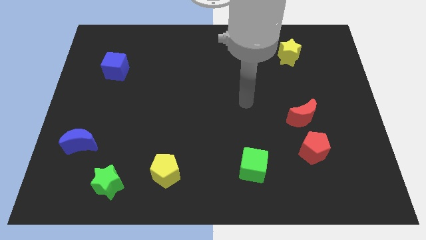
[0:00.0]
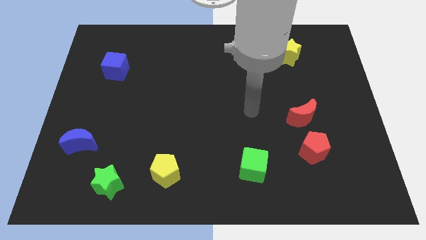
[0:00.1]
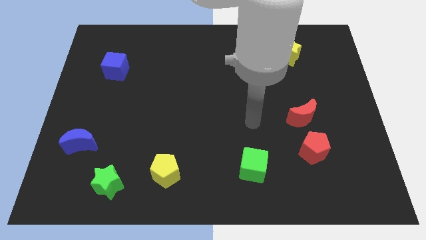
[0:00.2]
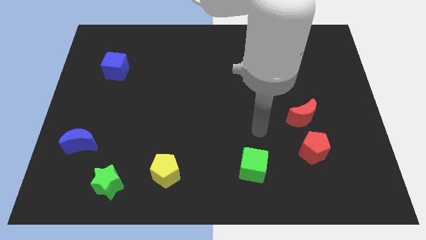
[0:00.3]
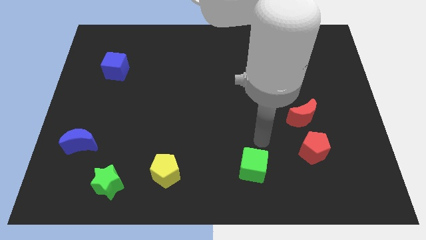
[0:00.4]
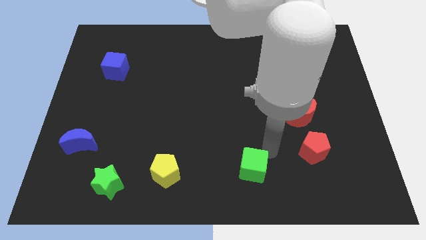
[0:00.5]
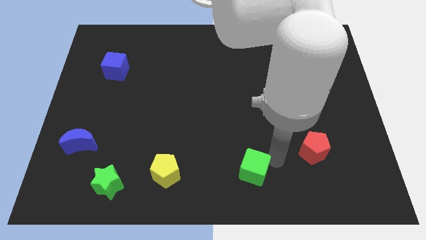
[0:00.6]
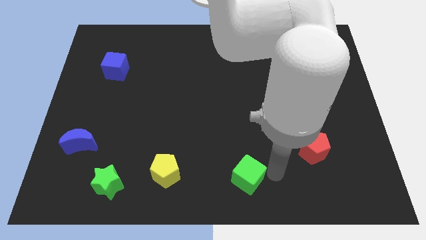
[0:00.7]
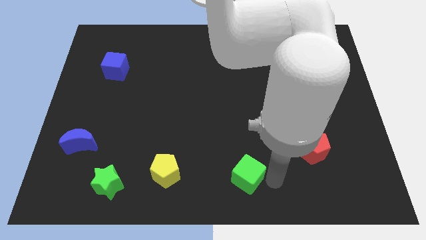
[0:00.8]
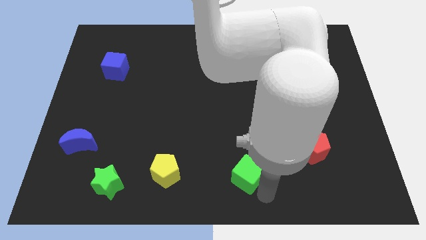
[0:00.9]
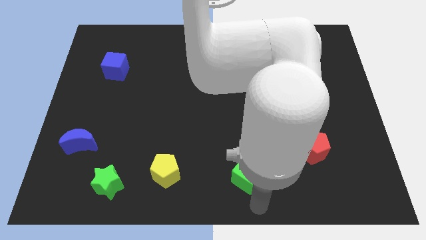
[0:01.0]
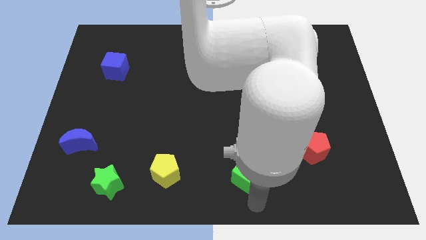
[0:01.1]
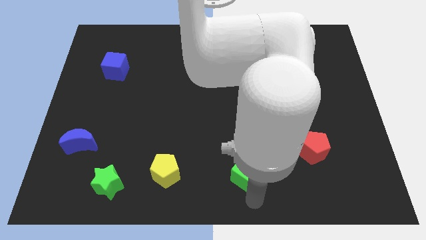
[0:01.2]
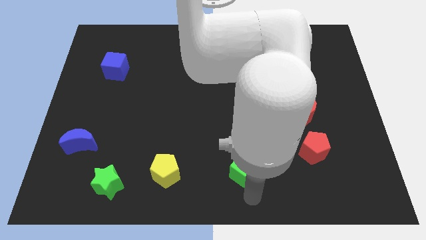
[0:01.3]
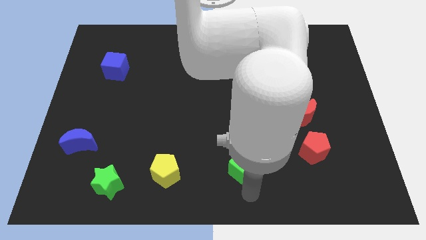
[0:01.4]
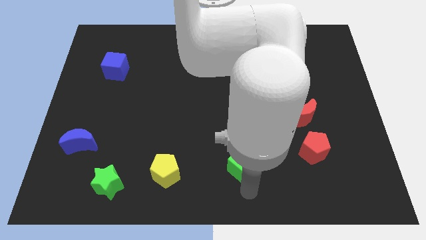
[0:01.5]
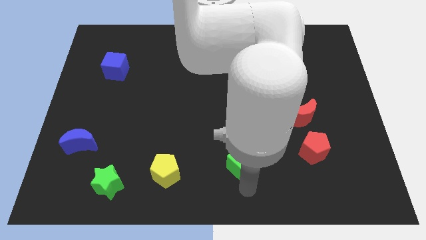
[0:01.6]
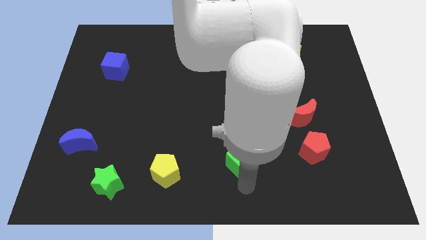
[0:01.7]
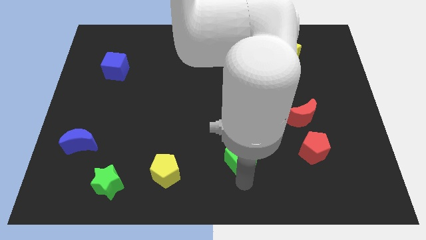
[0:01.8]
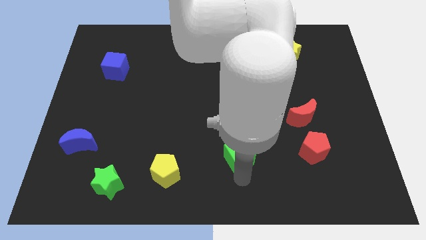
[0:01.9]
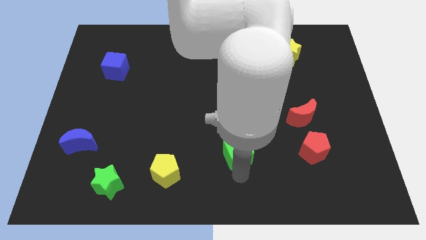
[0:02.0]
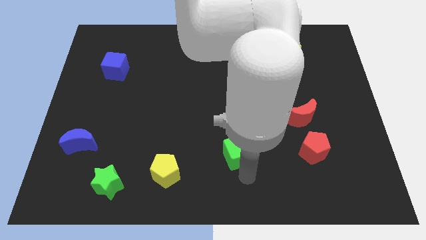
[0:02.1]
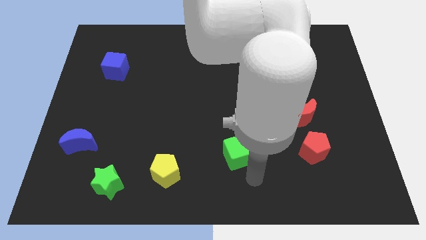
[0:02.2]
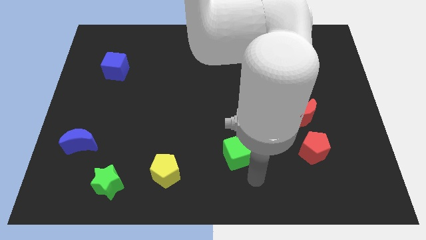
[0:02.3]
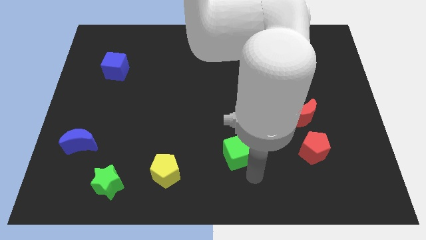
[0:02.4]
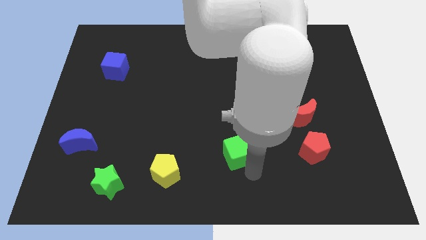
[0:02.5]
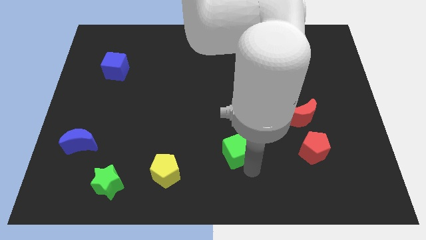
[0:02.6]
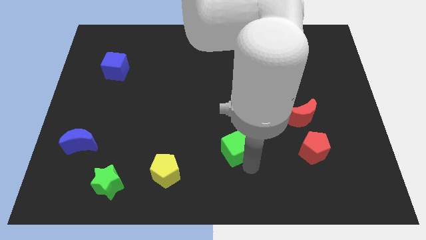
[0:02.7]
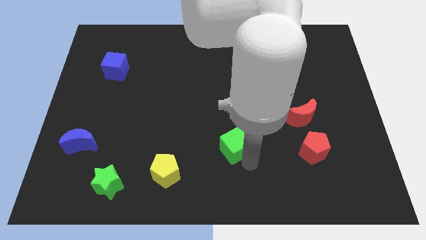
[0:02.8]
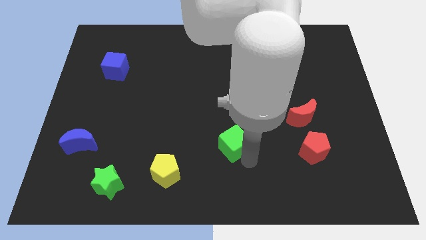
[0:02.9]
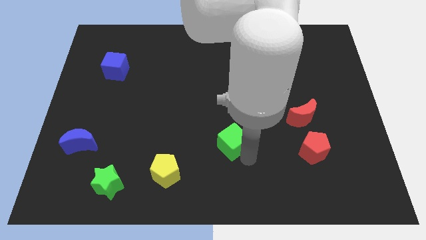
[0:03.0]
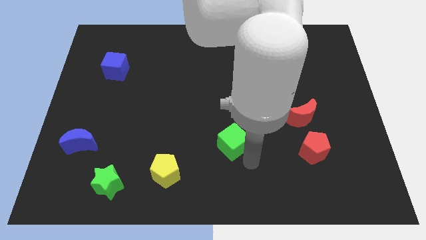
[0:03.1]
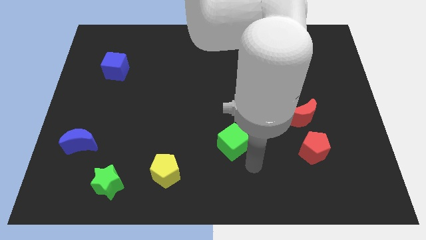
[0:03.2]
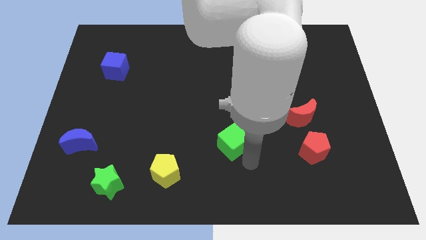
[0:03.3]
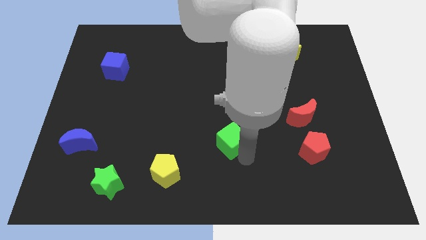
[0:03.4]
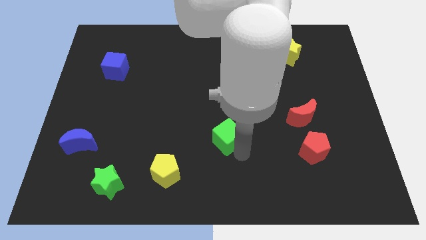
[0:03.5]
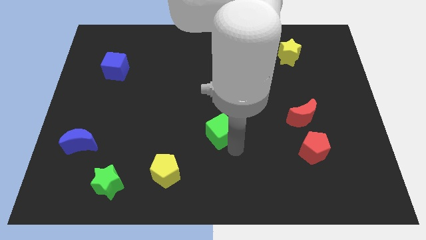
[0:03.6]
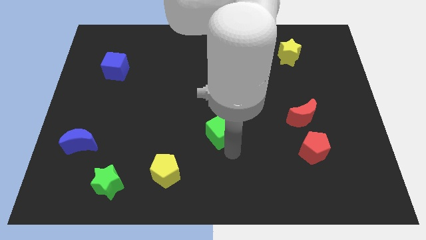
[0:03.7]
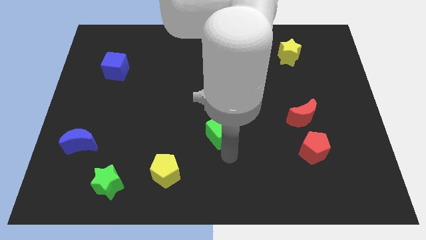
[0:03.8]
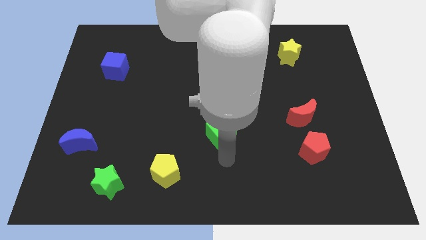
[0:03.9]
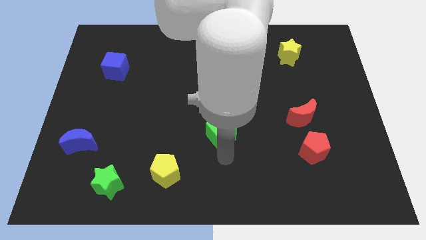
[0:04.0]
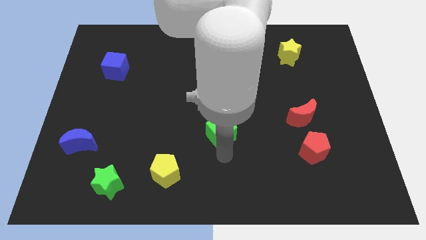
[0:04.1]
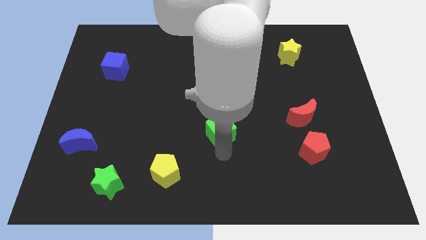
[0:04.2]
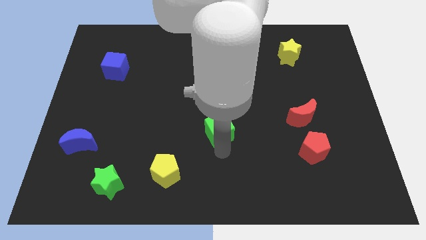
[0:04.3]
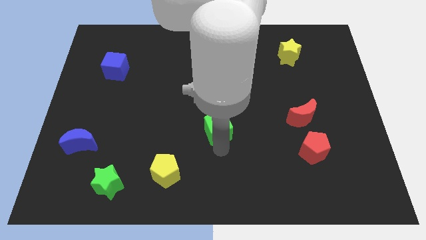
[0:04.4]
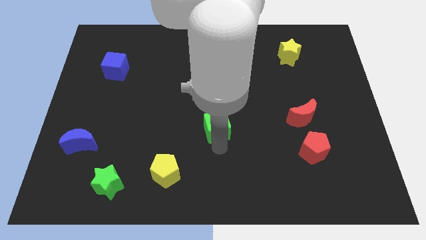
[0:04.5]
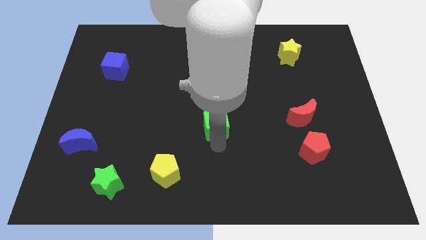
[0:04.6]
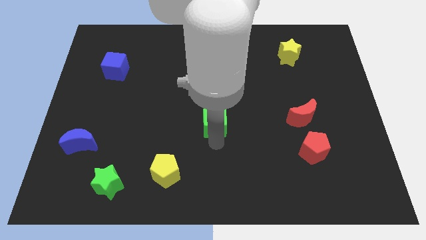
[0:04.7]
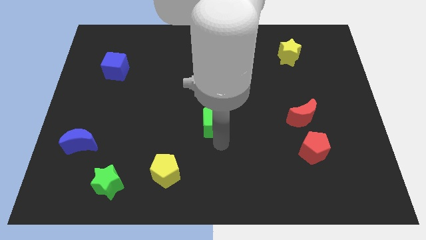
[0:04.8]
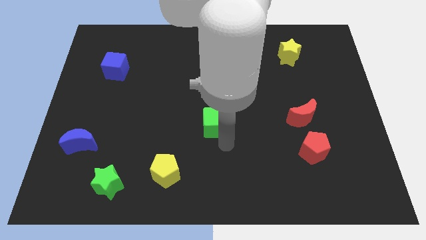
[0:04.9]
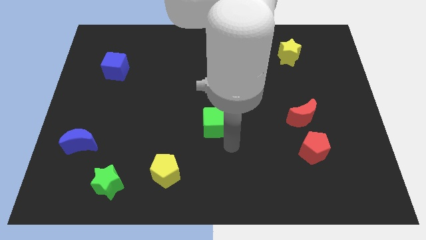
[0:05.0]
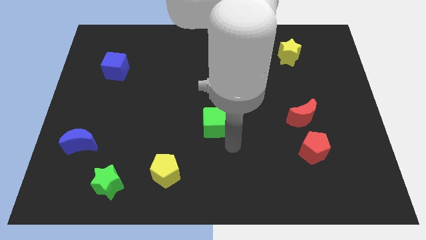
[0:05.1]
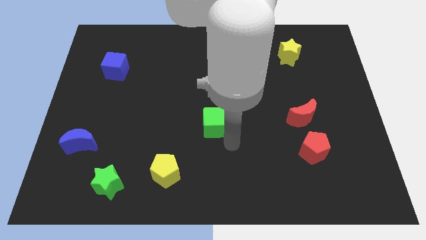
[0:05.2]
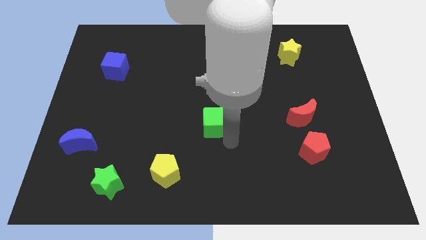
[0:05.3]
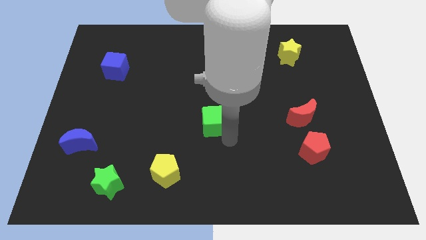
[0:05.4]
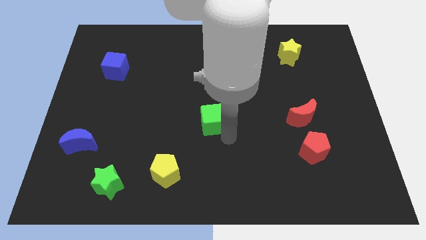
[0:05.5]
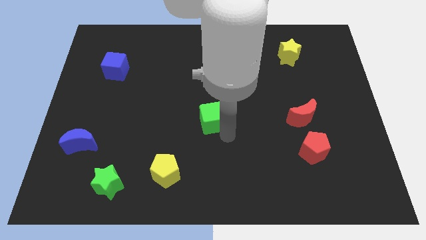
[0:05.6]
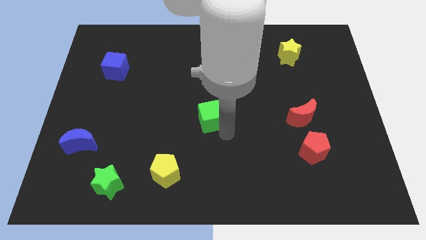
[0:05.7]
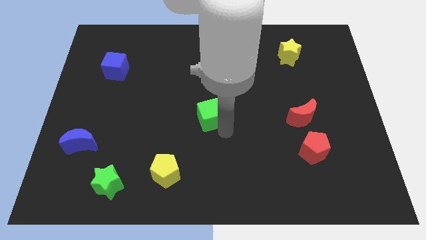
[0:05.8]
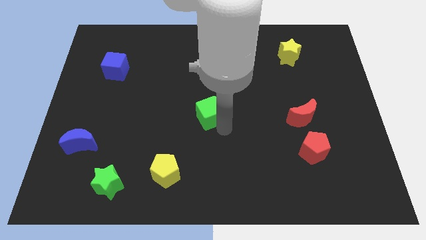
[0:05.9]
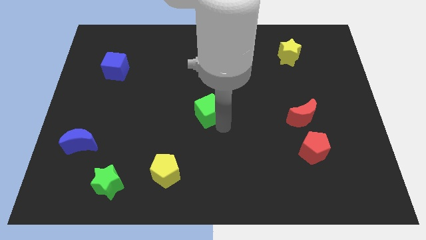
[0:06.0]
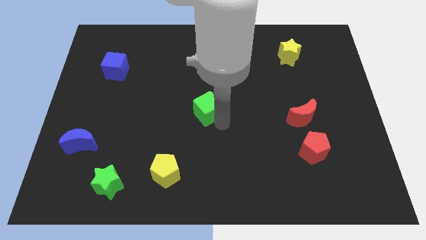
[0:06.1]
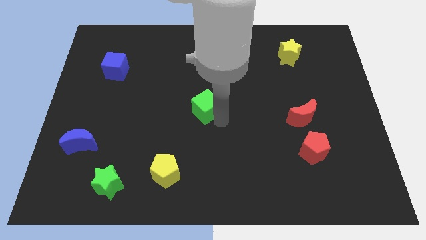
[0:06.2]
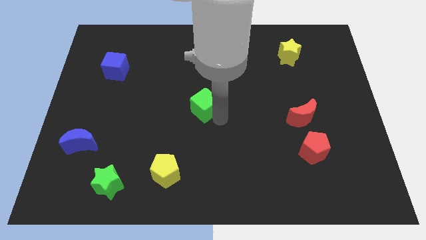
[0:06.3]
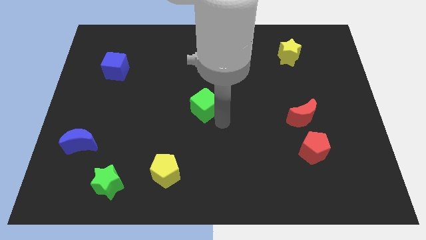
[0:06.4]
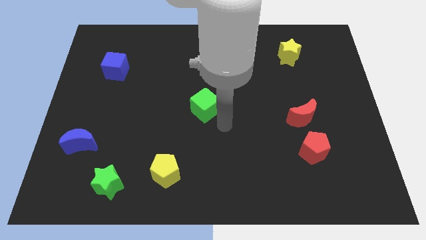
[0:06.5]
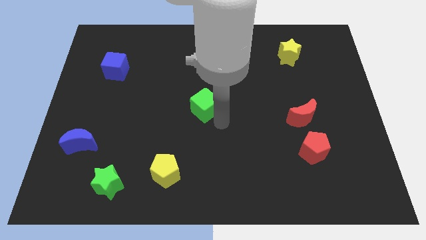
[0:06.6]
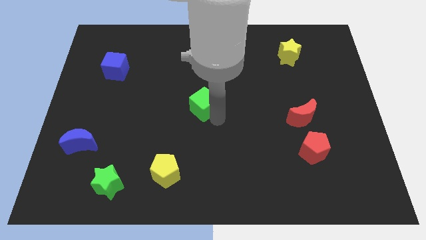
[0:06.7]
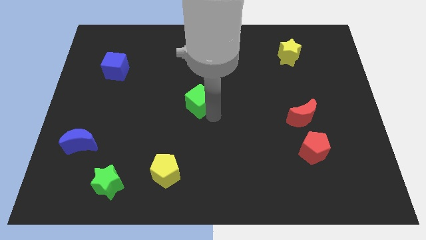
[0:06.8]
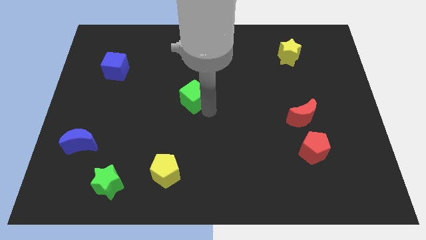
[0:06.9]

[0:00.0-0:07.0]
push the green cube up and left diagonally

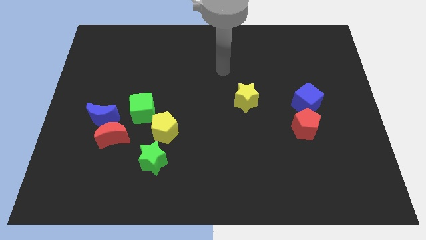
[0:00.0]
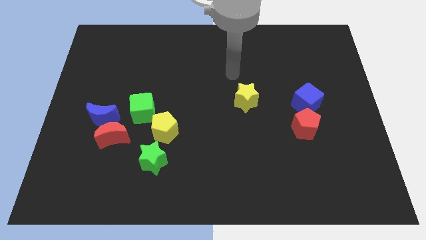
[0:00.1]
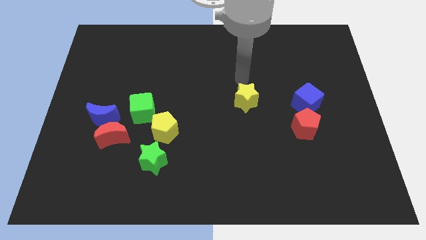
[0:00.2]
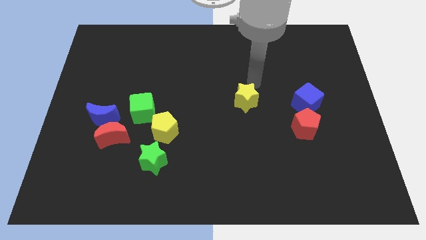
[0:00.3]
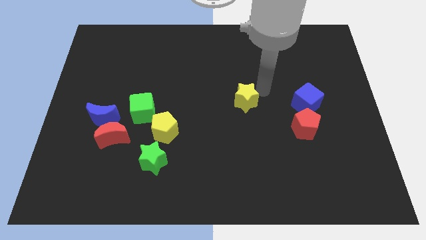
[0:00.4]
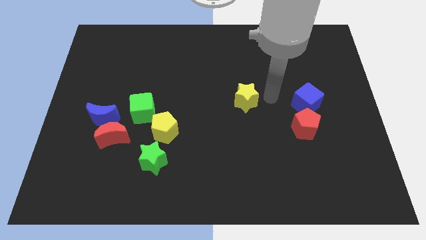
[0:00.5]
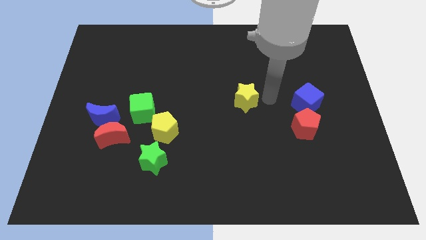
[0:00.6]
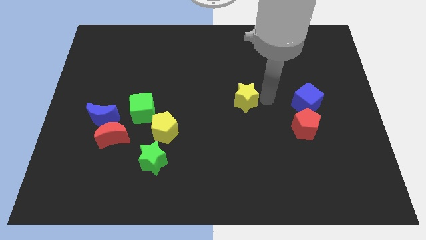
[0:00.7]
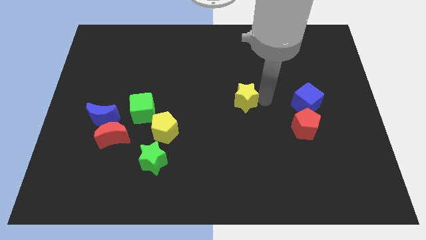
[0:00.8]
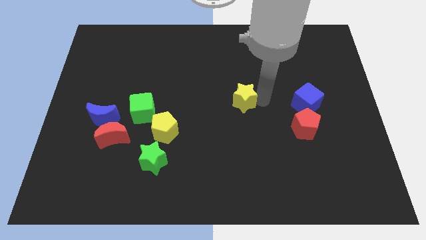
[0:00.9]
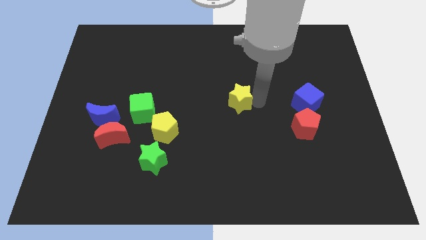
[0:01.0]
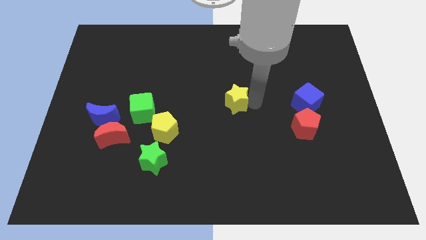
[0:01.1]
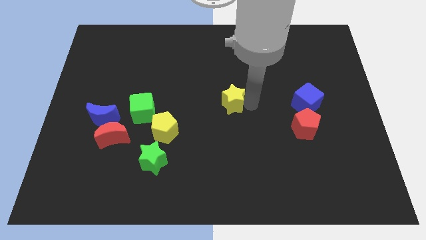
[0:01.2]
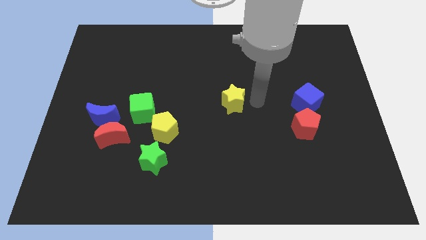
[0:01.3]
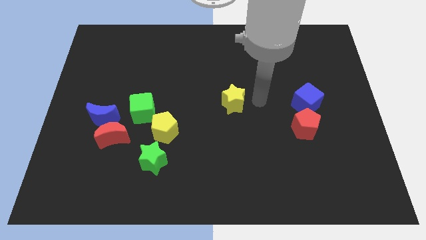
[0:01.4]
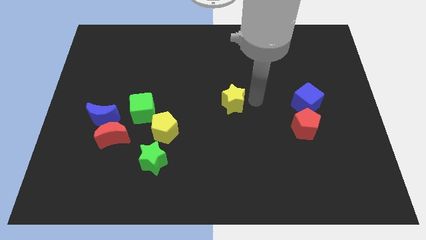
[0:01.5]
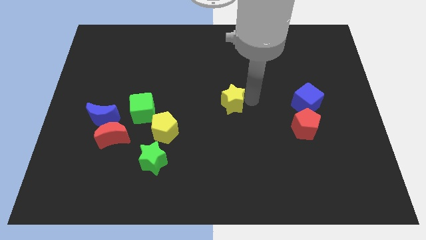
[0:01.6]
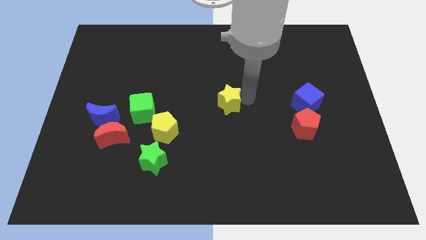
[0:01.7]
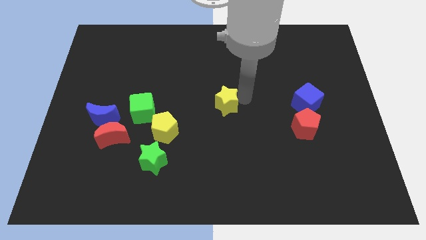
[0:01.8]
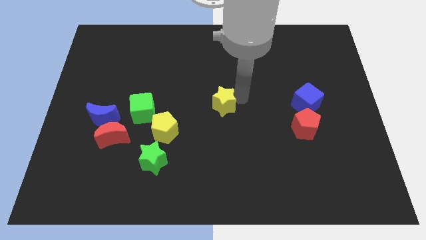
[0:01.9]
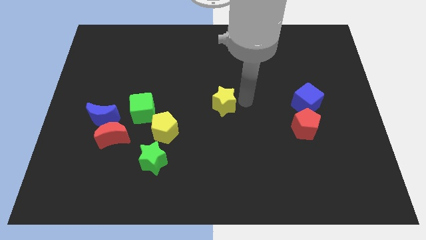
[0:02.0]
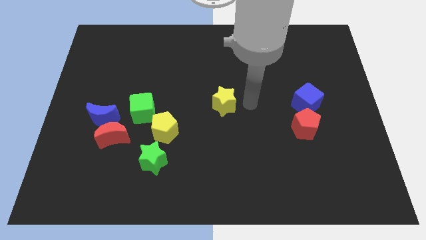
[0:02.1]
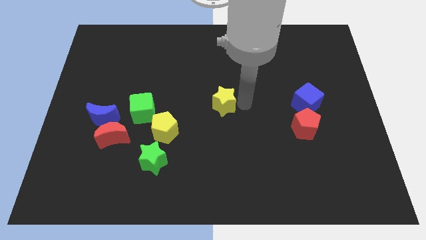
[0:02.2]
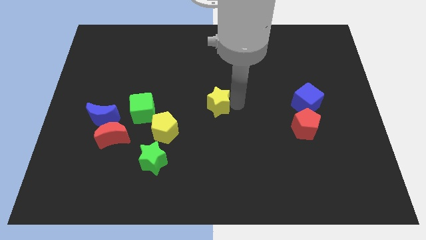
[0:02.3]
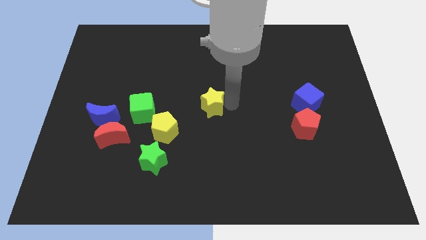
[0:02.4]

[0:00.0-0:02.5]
slide the yellow star somewhat left
